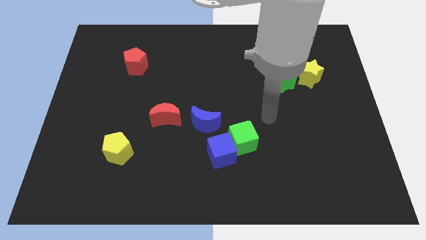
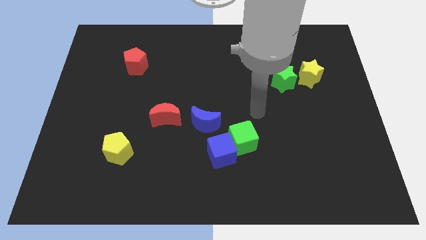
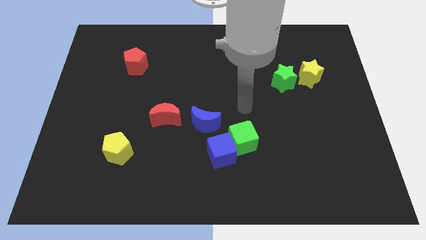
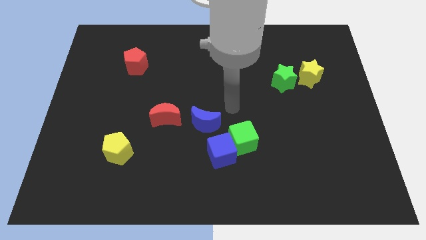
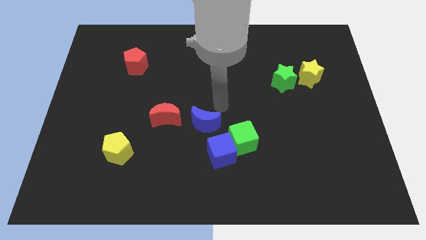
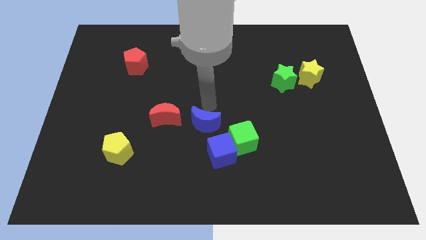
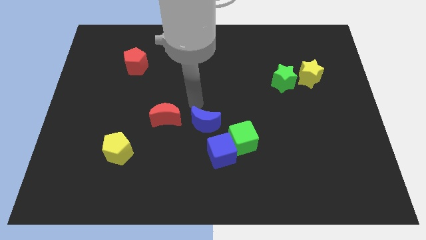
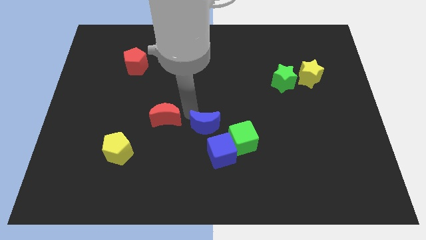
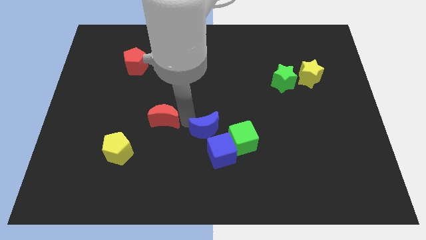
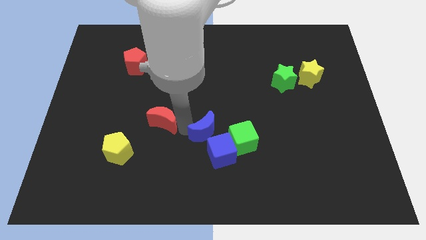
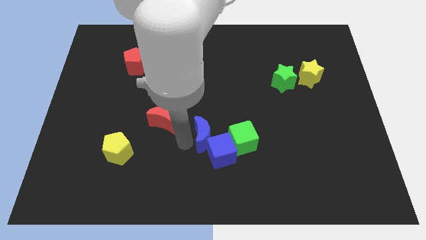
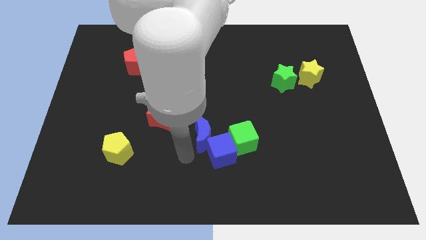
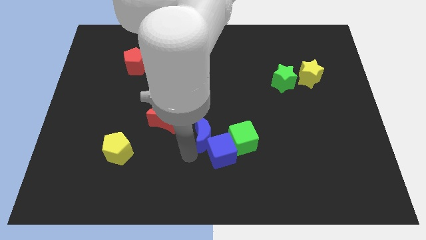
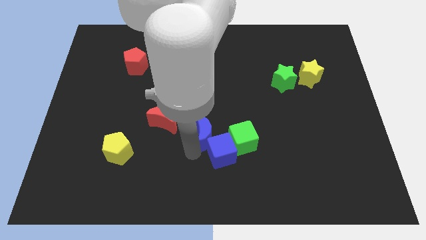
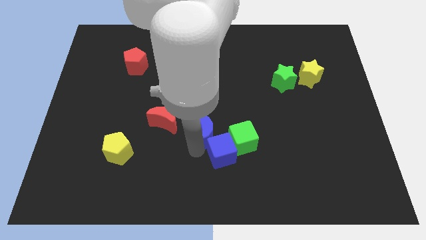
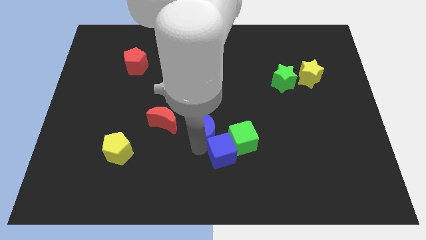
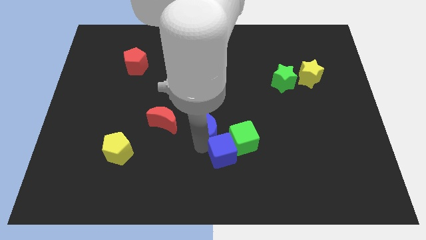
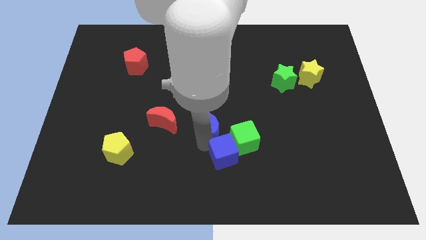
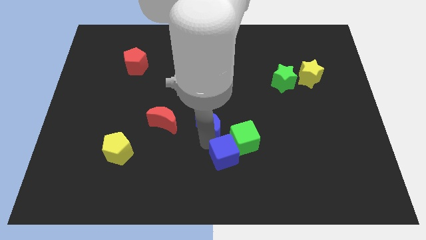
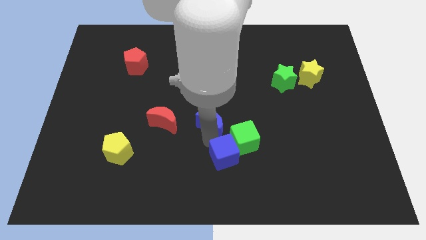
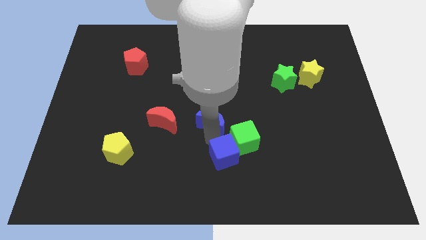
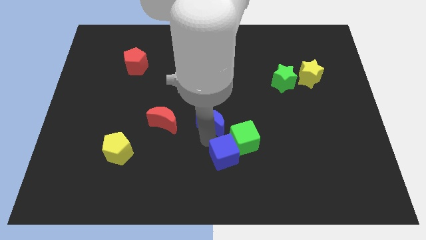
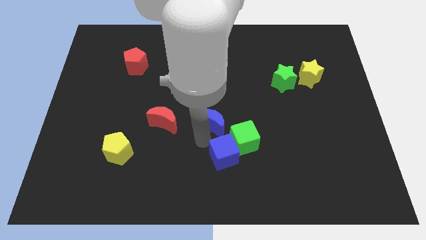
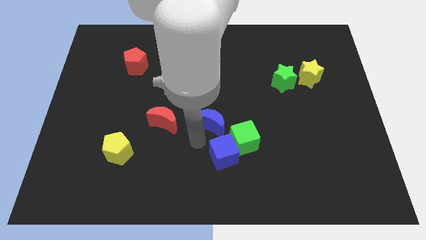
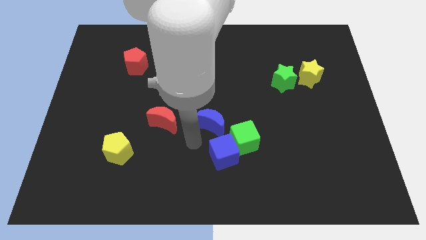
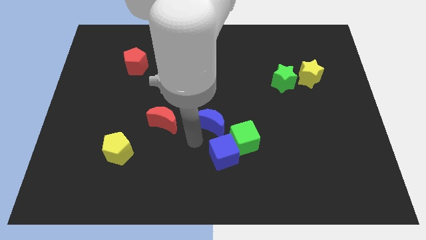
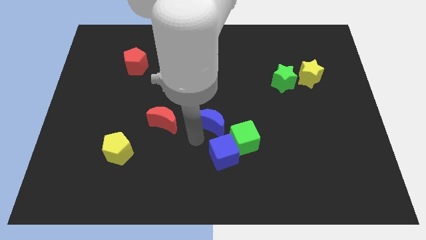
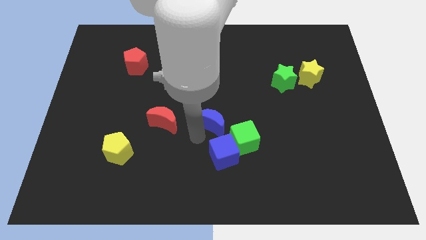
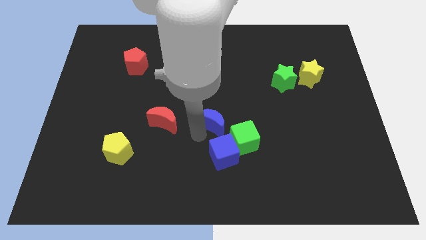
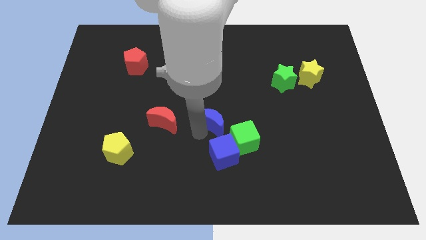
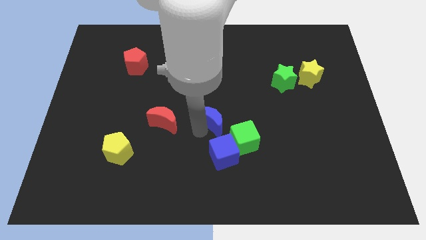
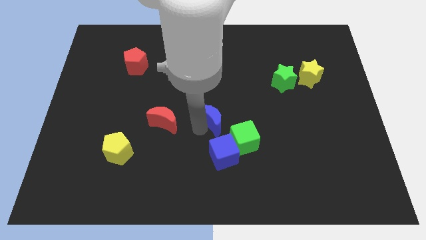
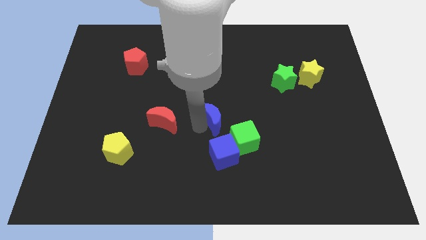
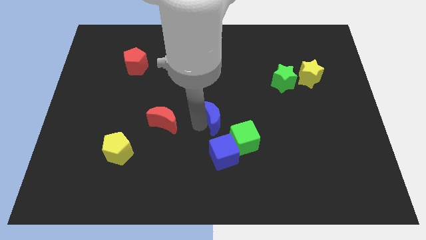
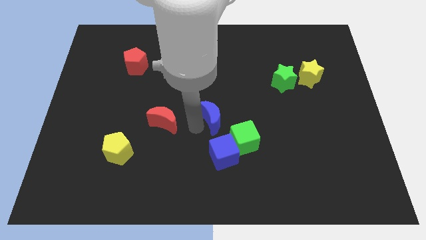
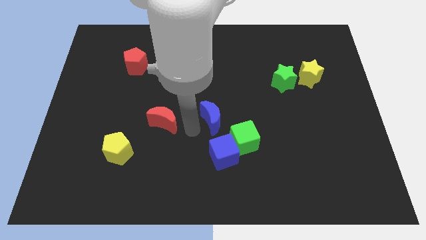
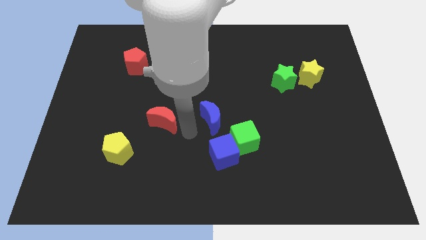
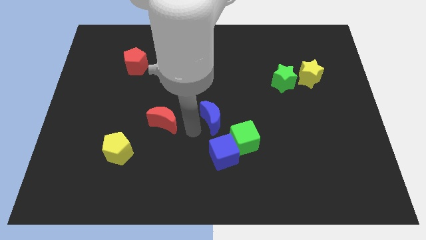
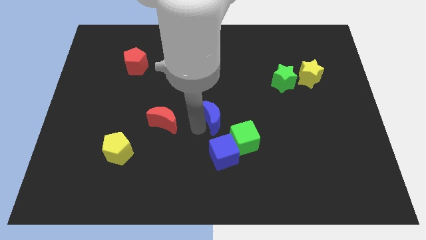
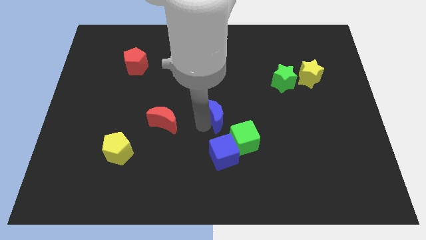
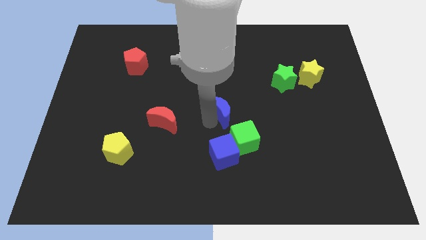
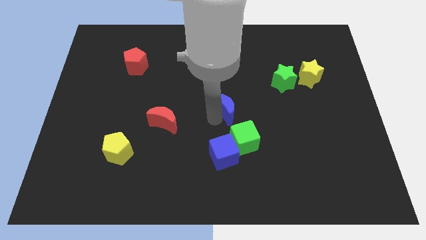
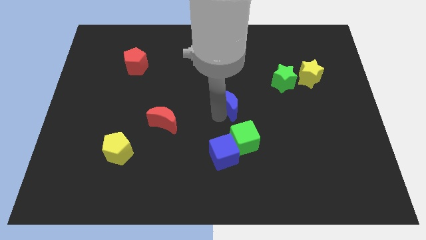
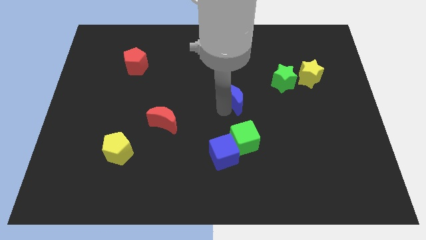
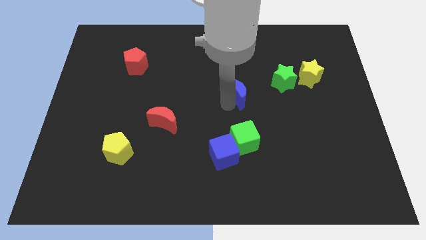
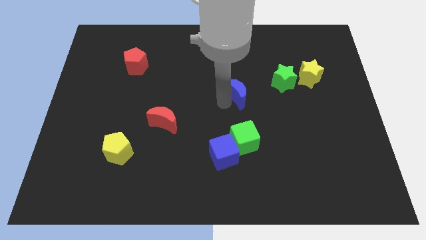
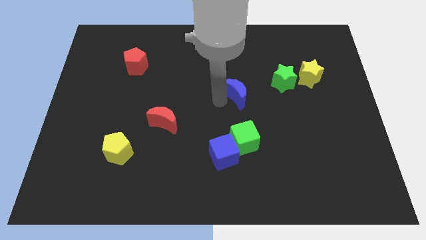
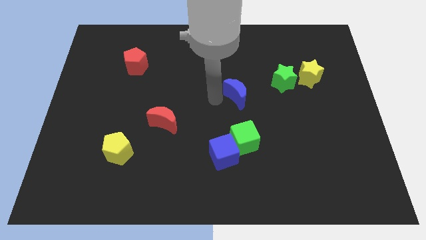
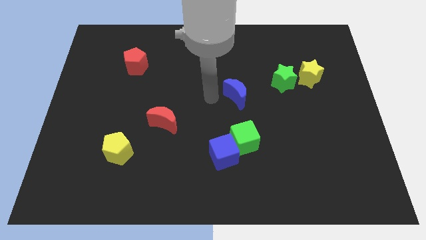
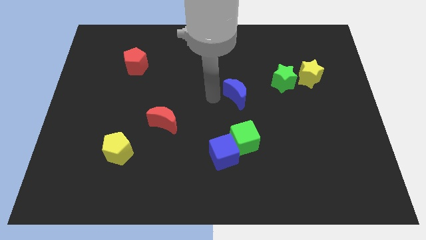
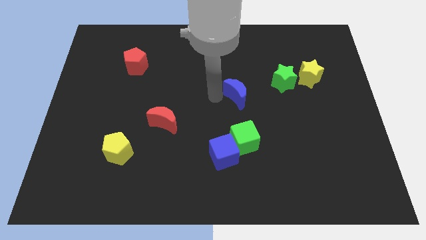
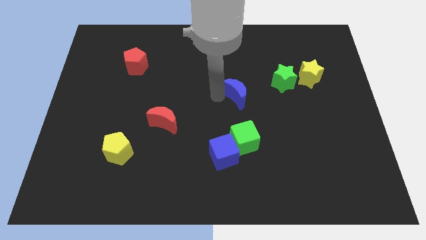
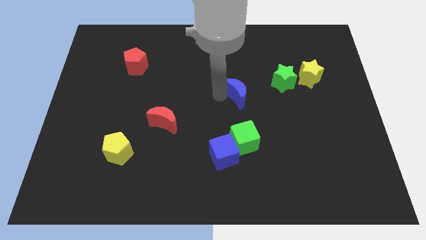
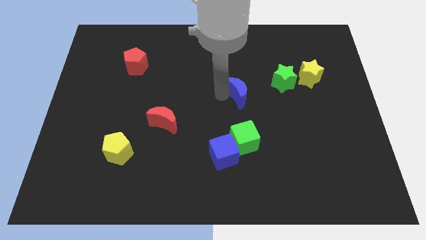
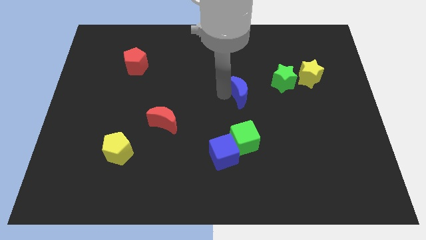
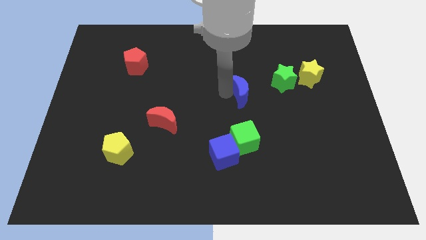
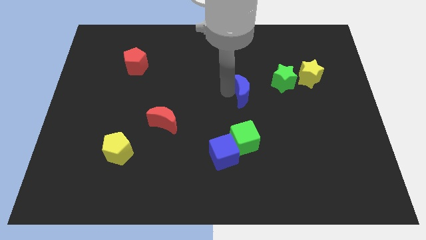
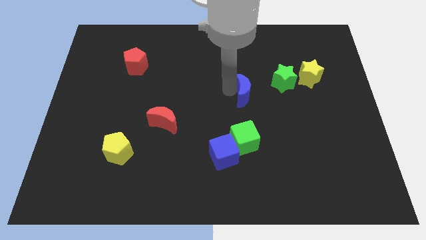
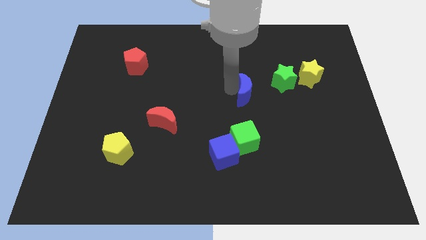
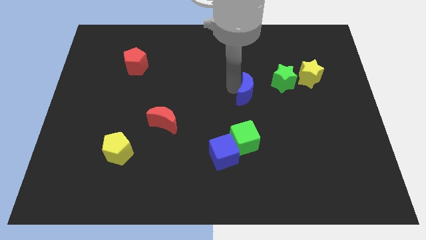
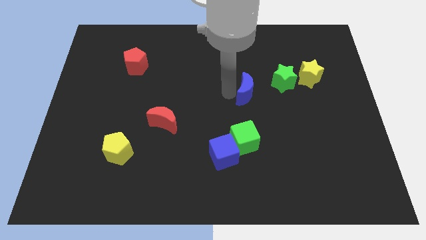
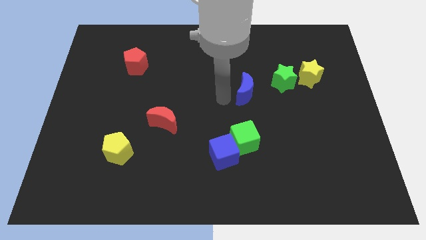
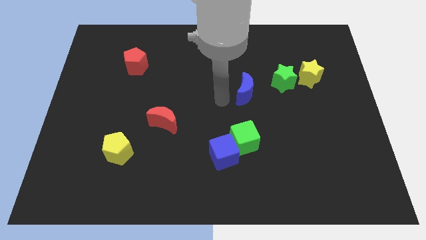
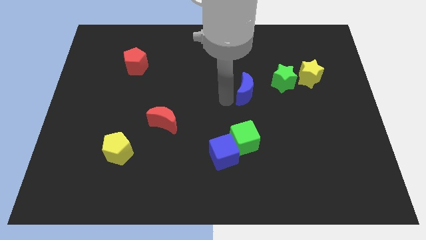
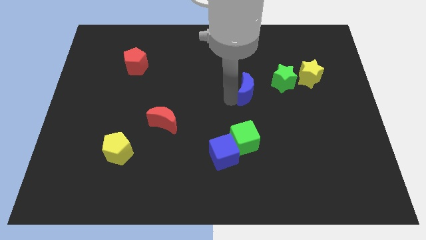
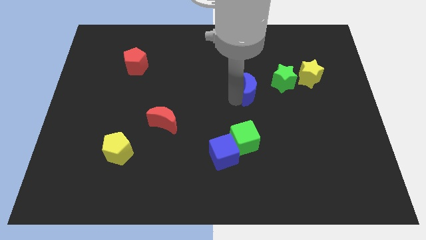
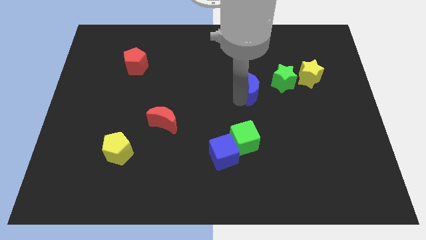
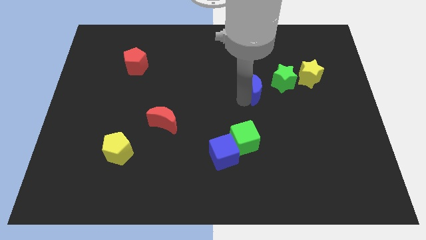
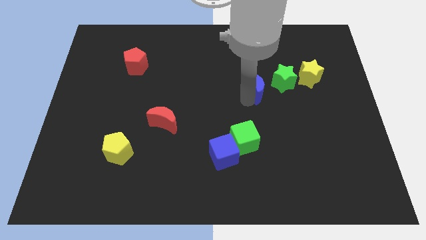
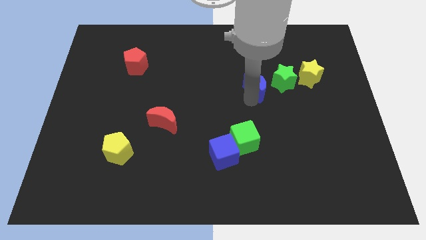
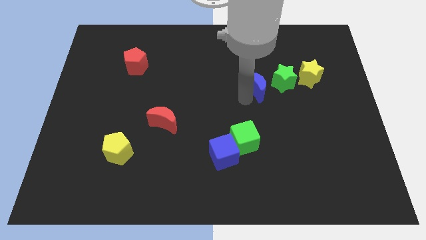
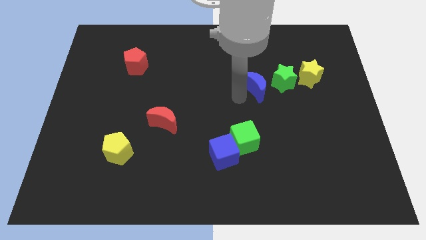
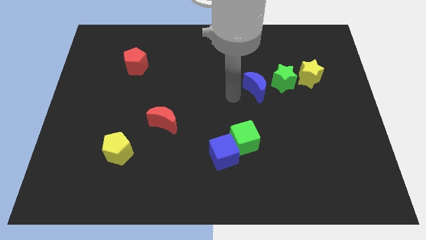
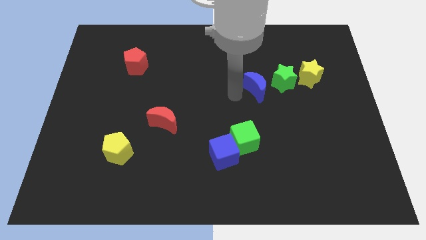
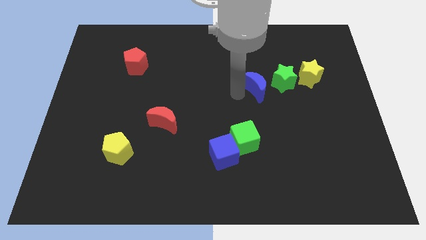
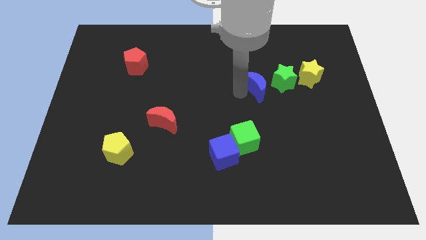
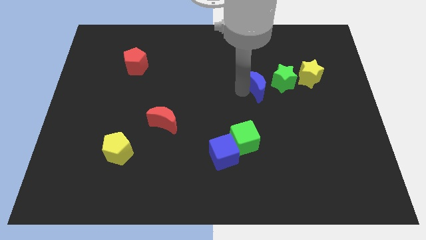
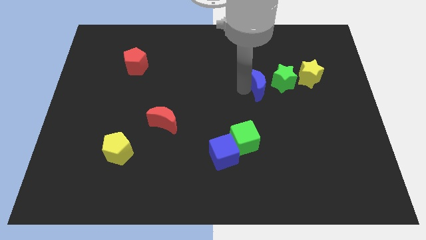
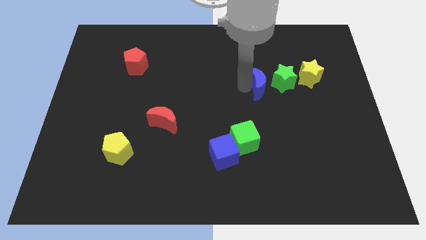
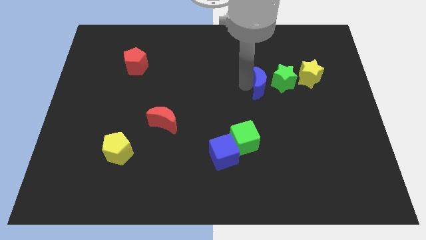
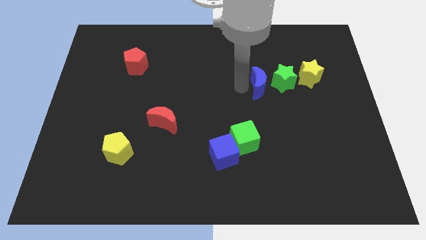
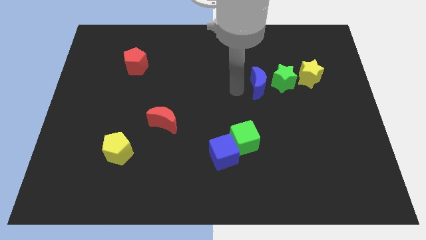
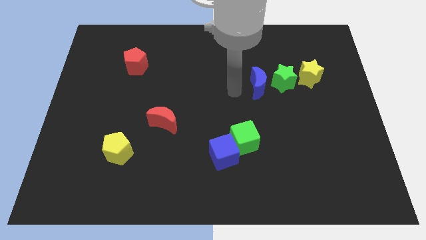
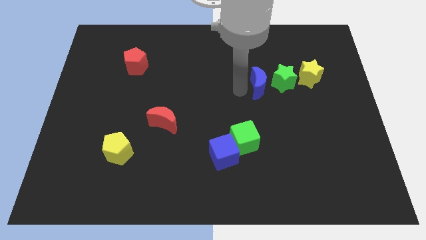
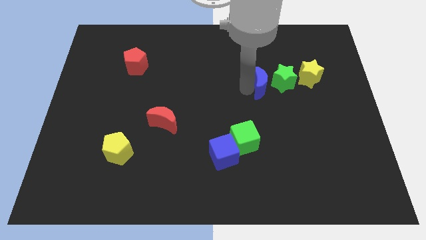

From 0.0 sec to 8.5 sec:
push the blue moon close to the green star
